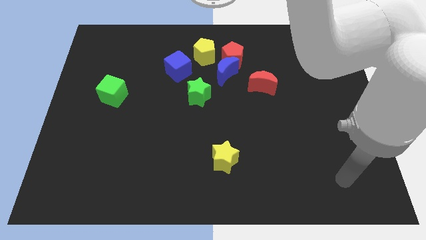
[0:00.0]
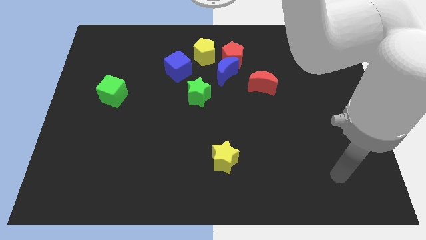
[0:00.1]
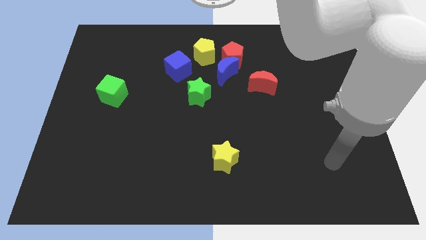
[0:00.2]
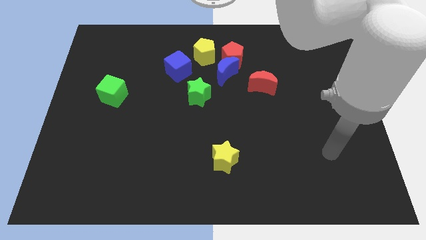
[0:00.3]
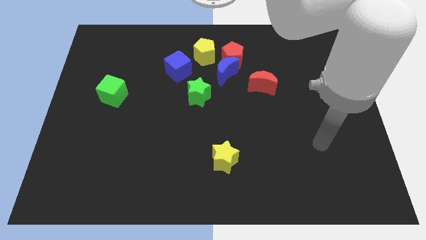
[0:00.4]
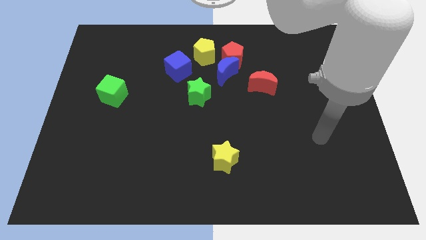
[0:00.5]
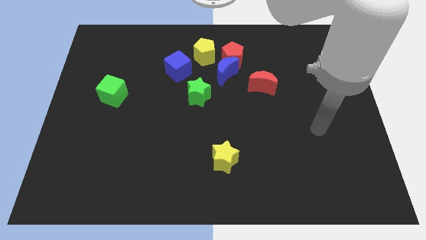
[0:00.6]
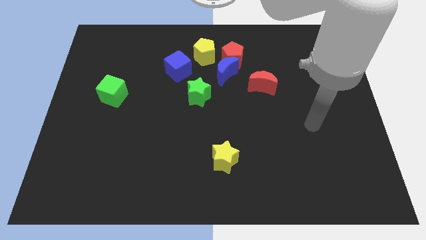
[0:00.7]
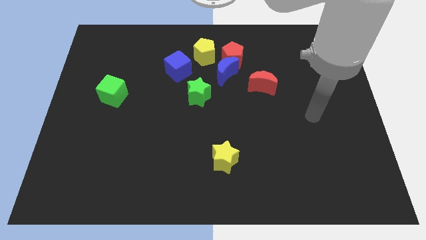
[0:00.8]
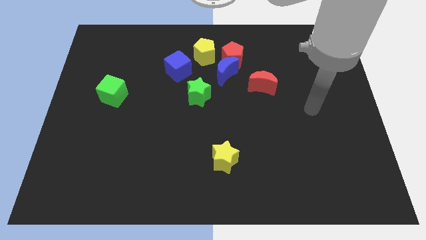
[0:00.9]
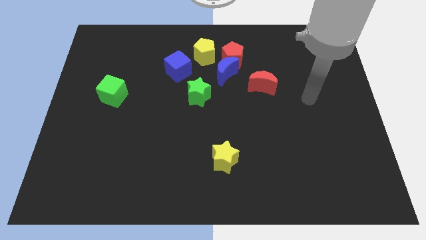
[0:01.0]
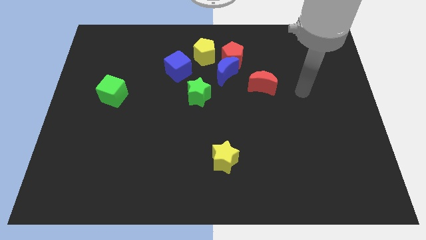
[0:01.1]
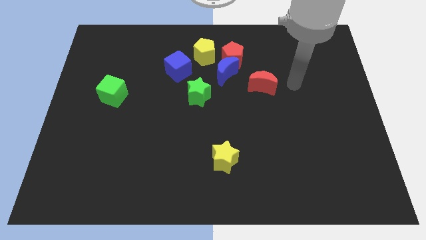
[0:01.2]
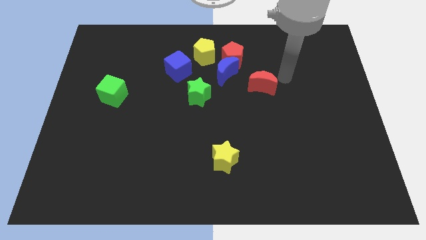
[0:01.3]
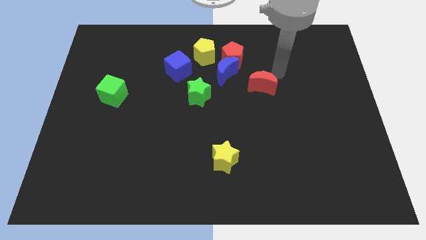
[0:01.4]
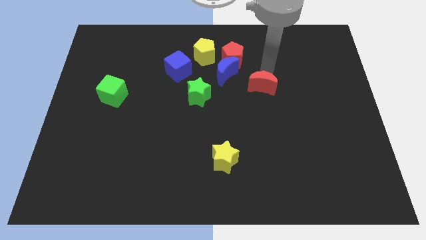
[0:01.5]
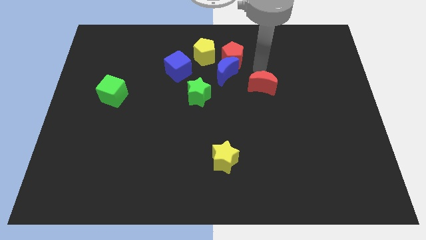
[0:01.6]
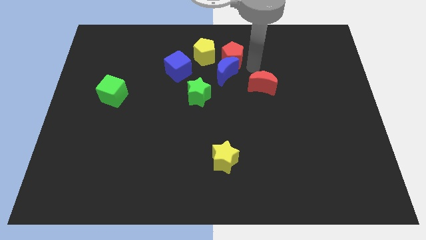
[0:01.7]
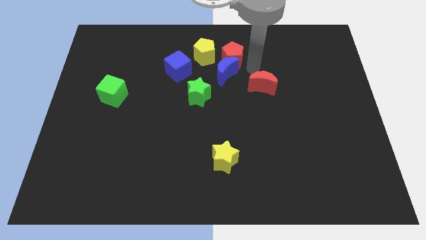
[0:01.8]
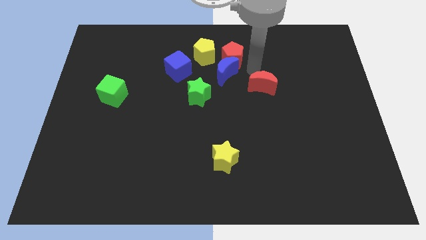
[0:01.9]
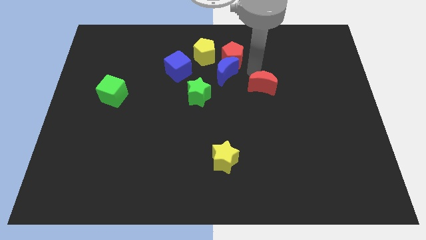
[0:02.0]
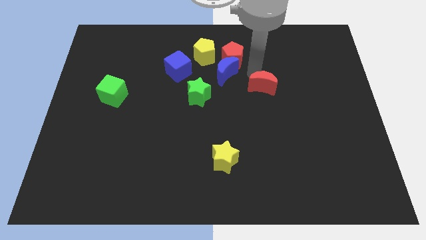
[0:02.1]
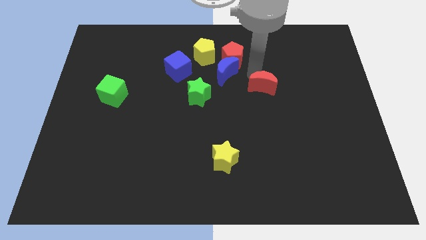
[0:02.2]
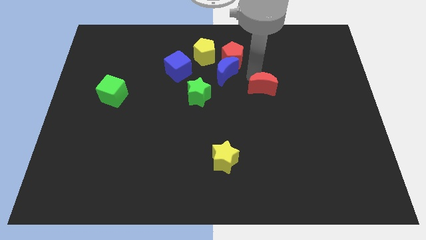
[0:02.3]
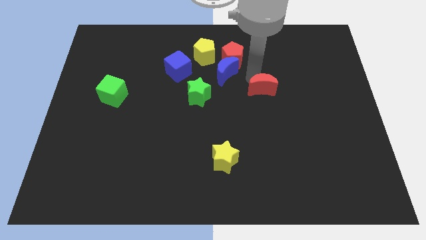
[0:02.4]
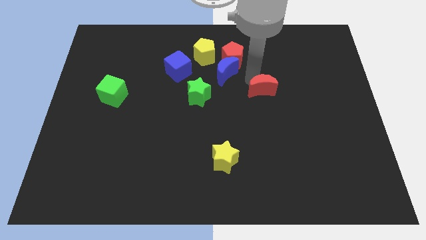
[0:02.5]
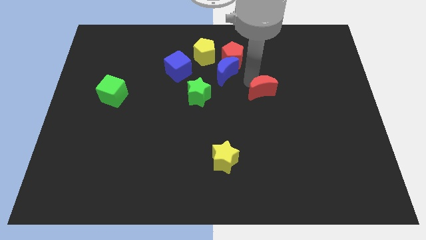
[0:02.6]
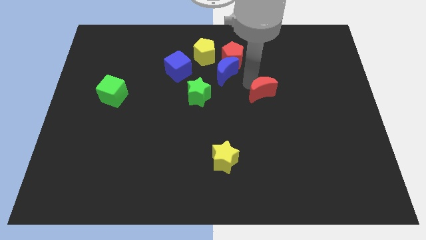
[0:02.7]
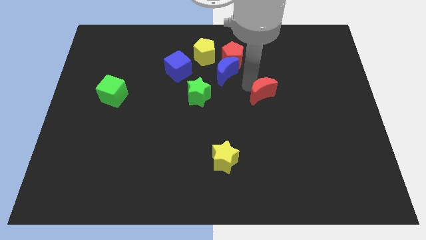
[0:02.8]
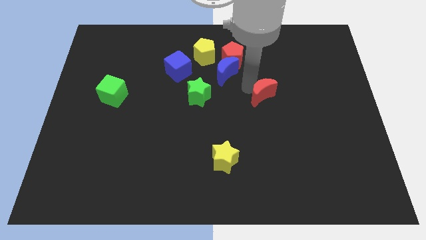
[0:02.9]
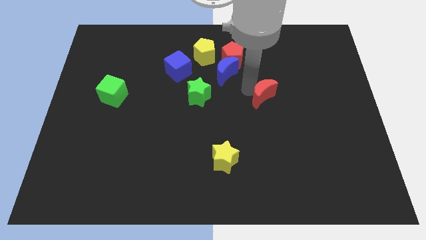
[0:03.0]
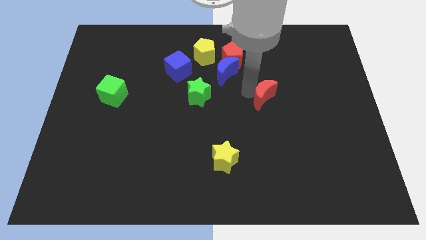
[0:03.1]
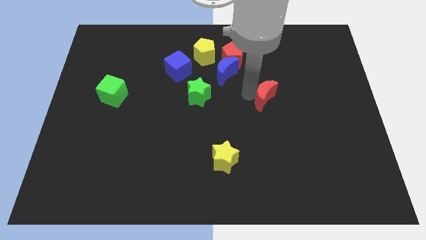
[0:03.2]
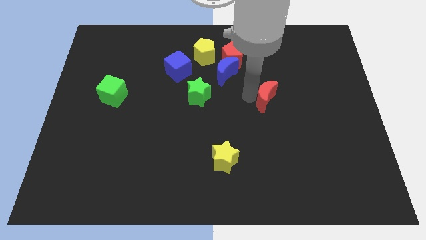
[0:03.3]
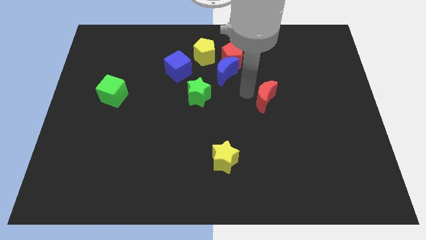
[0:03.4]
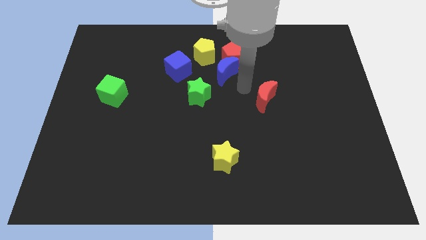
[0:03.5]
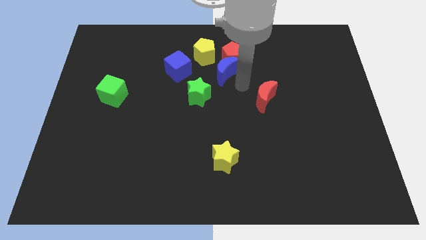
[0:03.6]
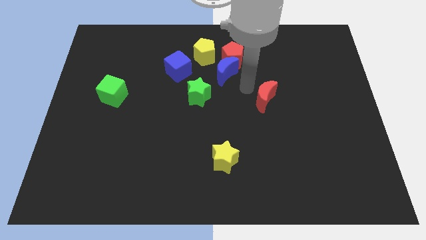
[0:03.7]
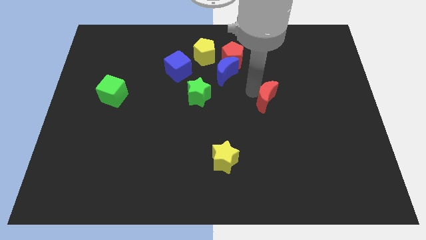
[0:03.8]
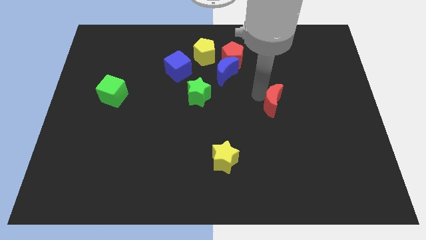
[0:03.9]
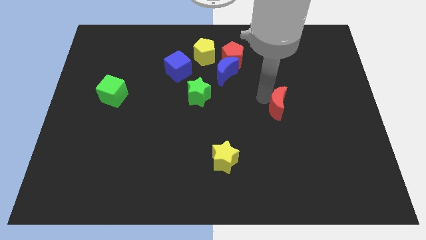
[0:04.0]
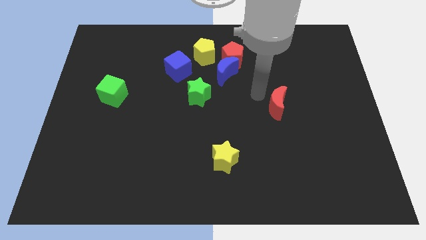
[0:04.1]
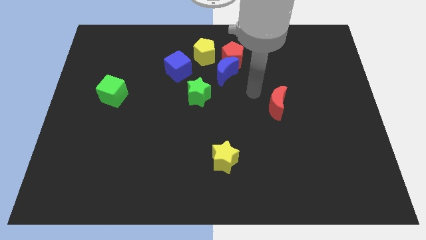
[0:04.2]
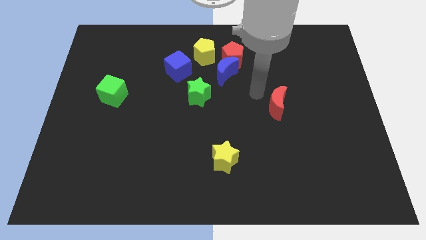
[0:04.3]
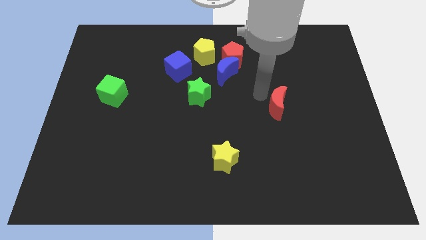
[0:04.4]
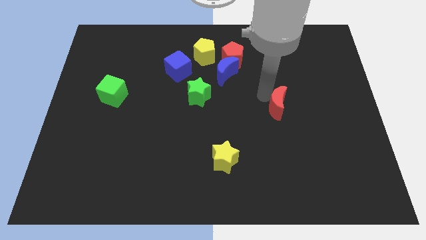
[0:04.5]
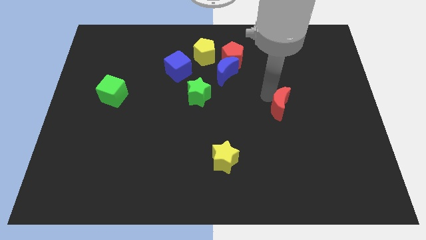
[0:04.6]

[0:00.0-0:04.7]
slightly push the red moon down and right diagonally

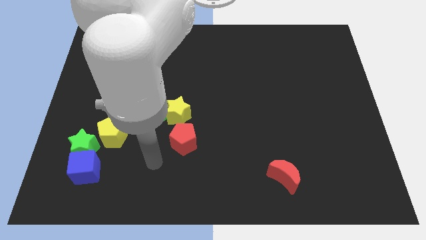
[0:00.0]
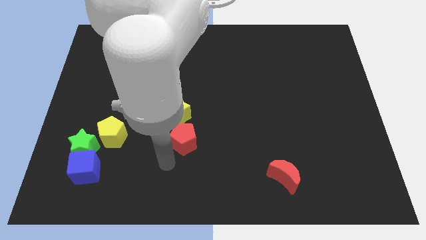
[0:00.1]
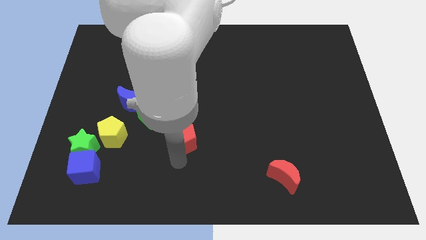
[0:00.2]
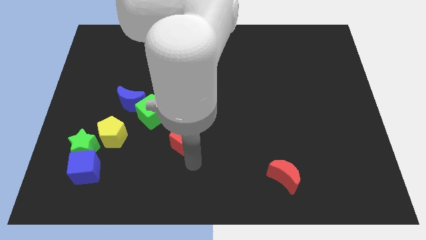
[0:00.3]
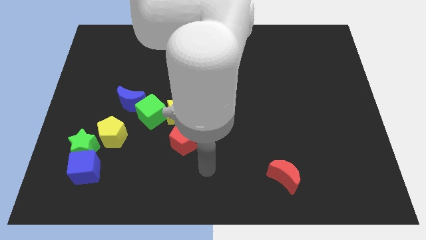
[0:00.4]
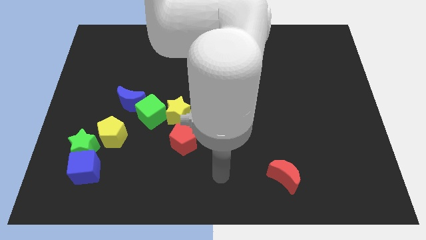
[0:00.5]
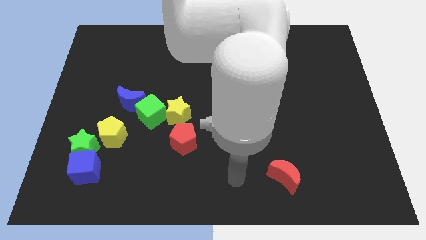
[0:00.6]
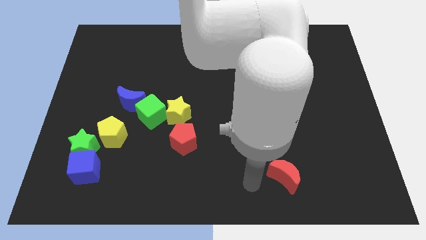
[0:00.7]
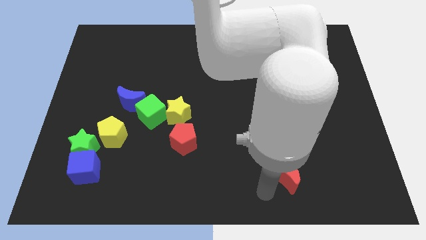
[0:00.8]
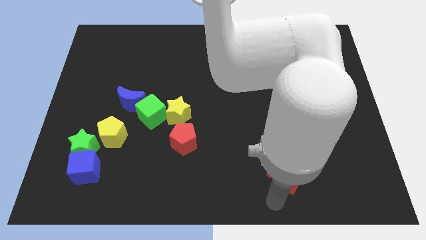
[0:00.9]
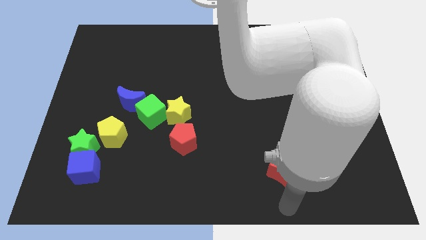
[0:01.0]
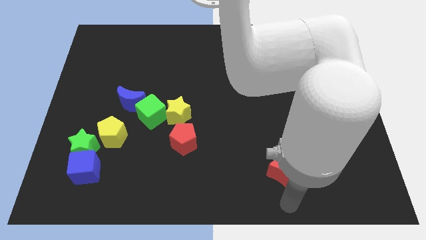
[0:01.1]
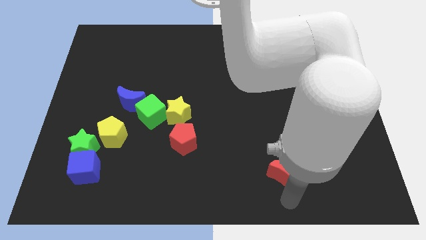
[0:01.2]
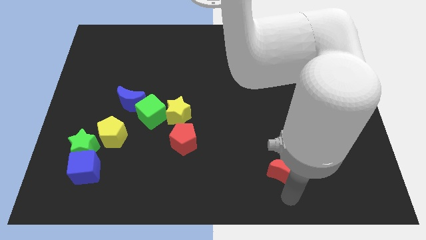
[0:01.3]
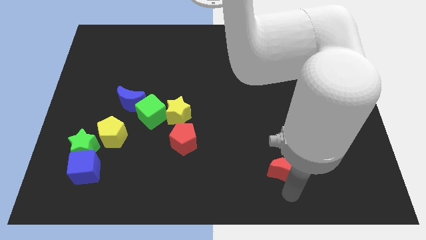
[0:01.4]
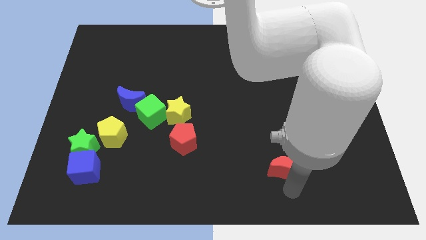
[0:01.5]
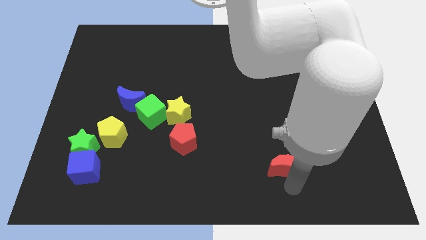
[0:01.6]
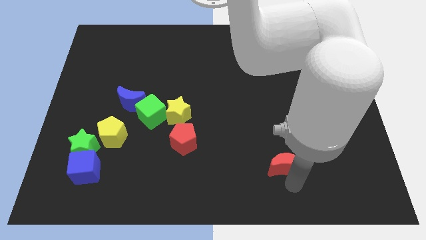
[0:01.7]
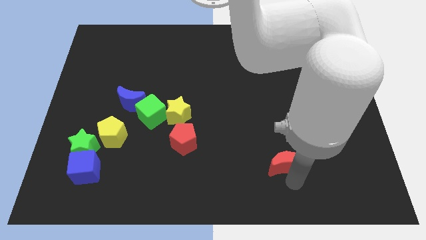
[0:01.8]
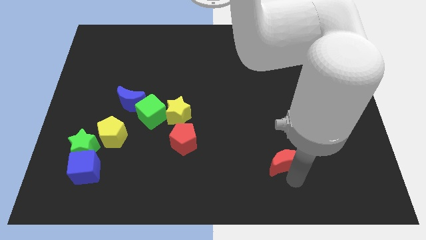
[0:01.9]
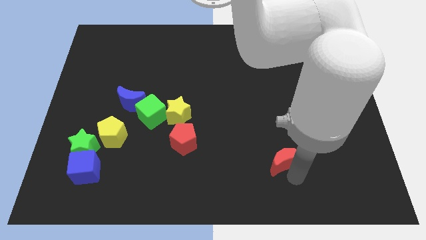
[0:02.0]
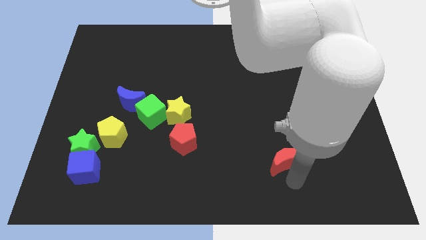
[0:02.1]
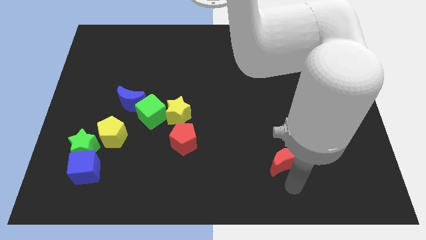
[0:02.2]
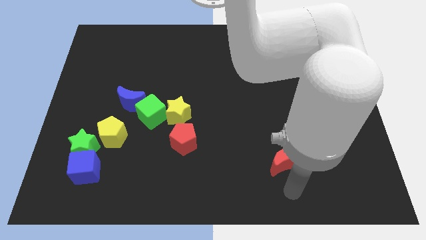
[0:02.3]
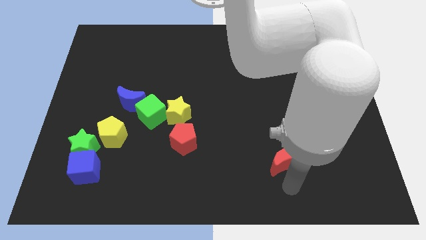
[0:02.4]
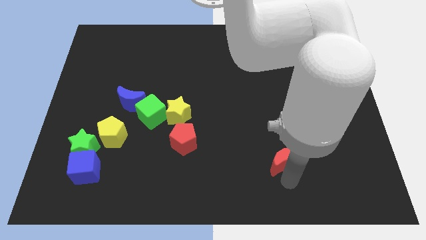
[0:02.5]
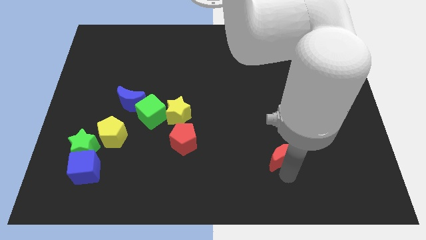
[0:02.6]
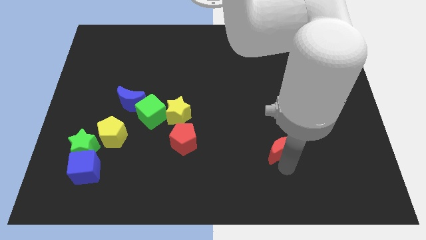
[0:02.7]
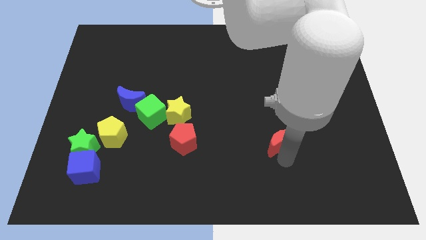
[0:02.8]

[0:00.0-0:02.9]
slightly push the red moon up

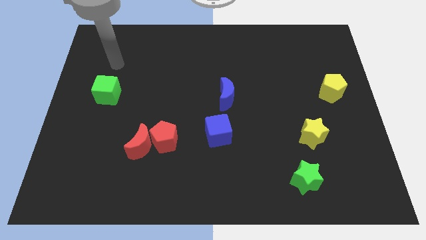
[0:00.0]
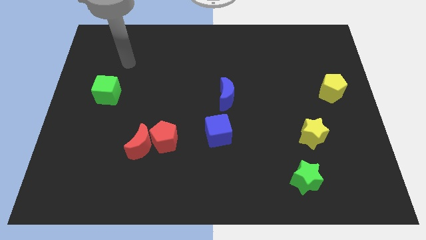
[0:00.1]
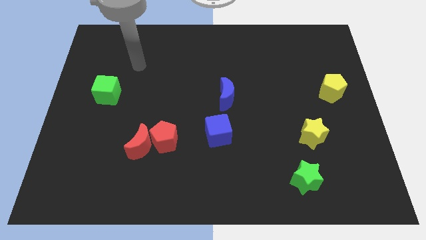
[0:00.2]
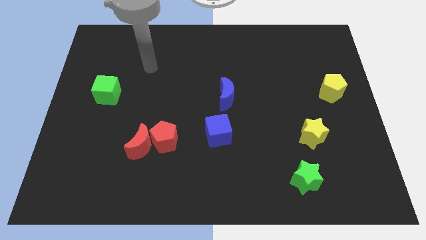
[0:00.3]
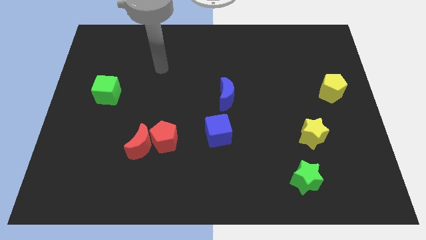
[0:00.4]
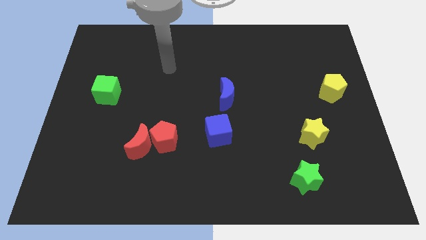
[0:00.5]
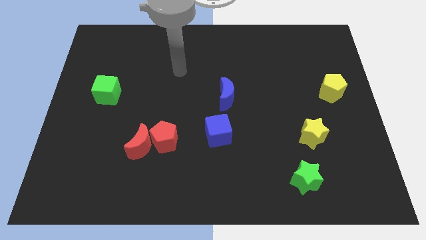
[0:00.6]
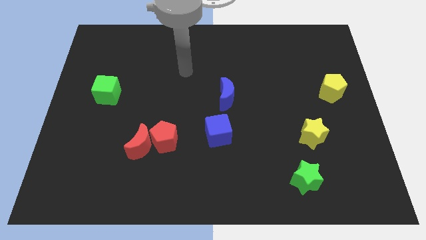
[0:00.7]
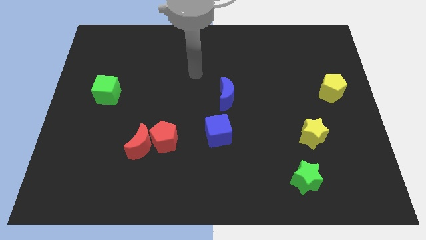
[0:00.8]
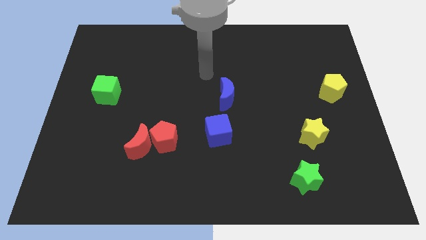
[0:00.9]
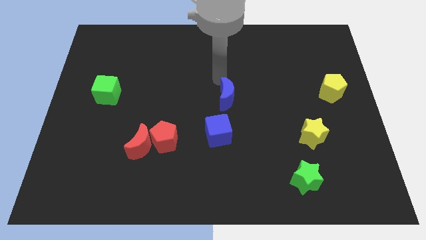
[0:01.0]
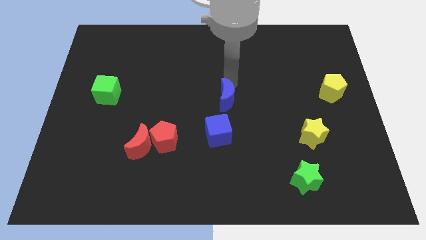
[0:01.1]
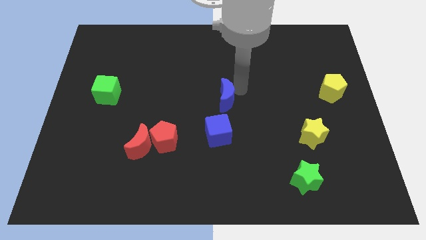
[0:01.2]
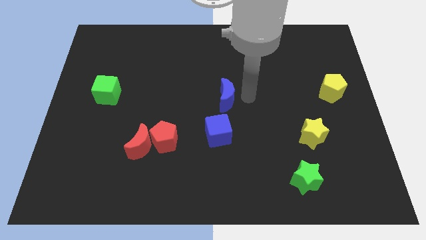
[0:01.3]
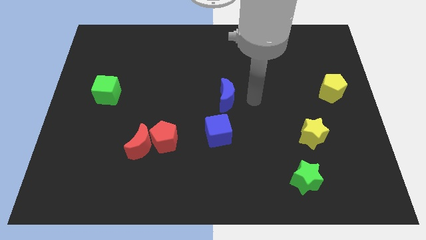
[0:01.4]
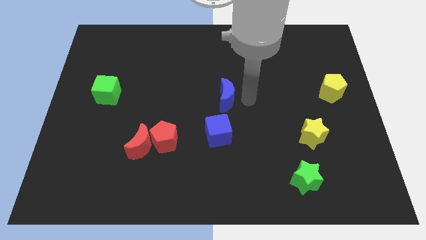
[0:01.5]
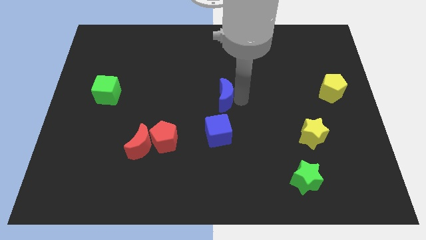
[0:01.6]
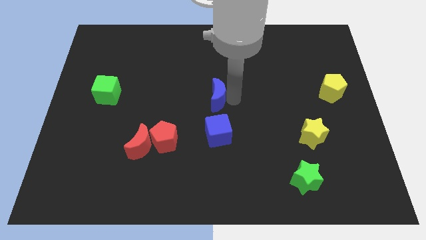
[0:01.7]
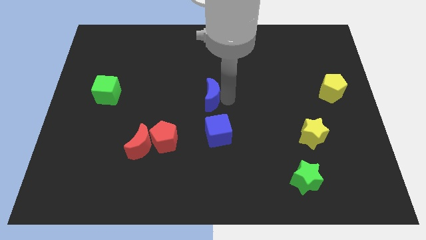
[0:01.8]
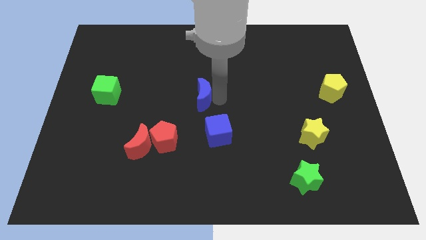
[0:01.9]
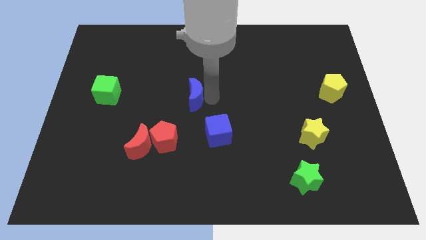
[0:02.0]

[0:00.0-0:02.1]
slightly move the blue moon to the left
